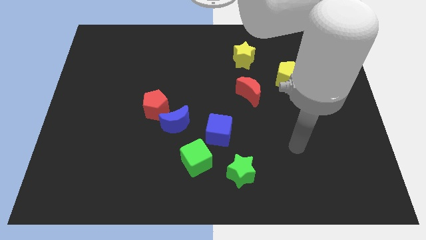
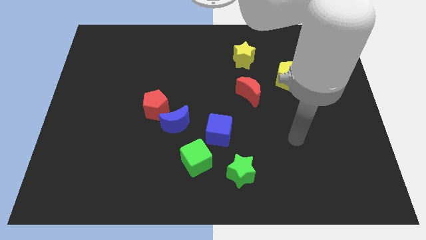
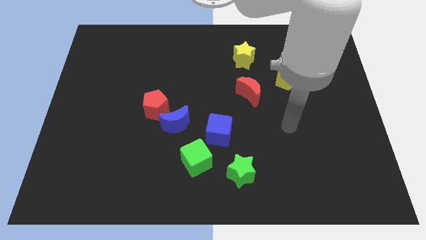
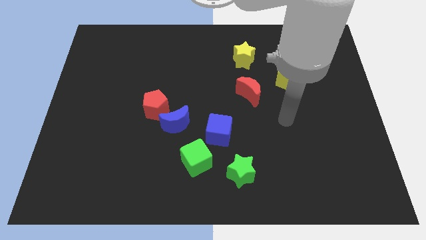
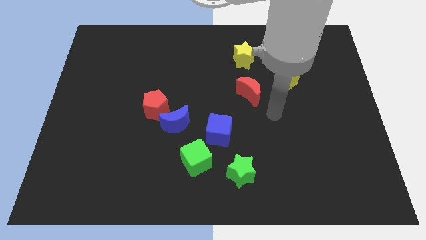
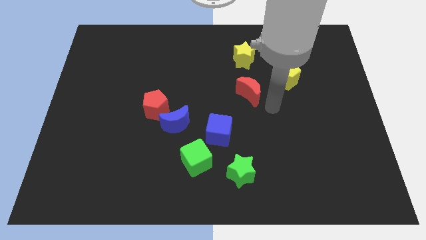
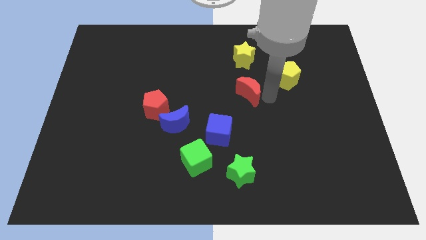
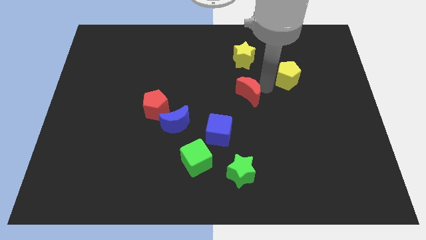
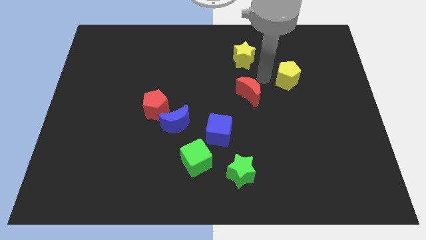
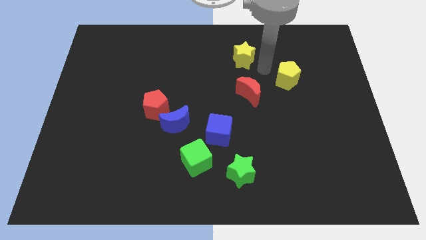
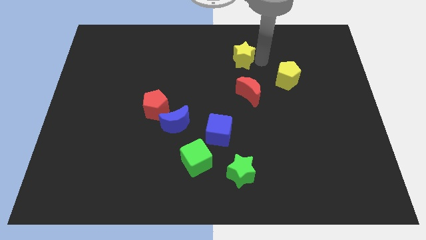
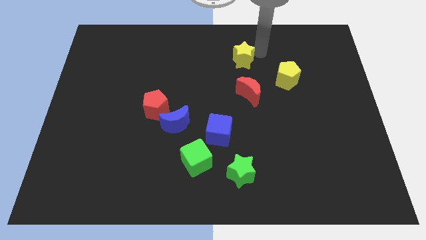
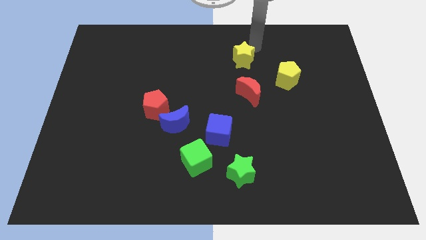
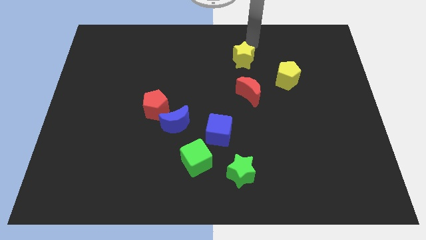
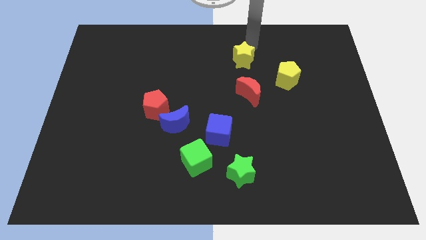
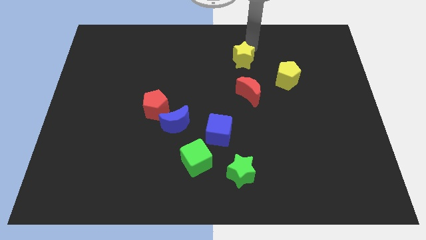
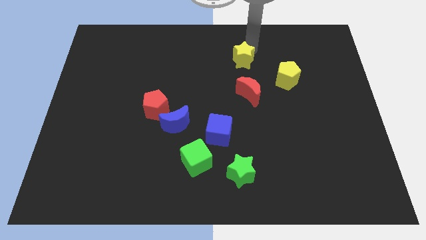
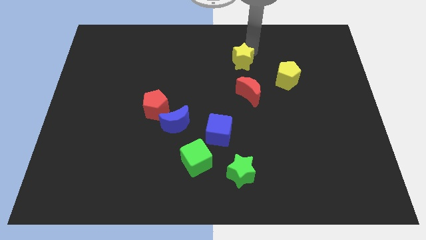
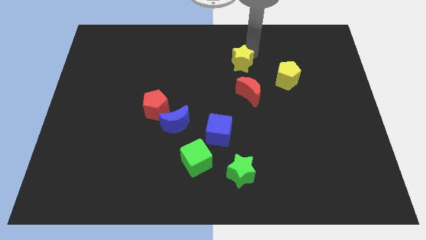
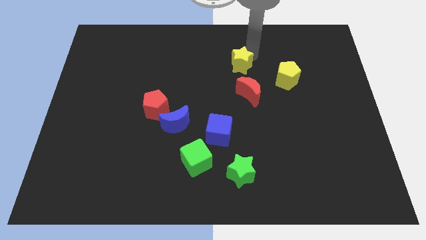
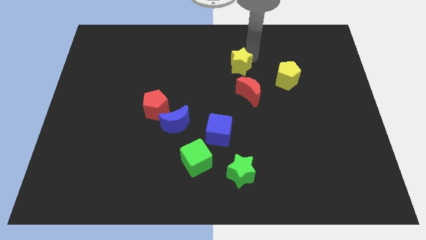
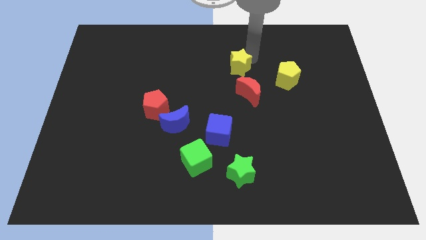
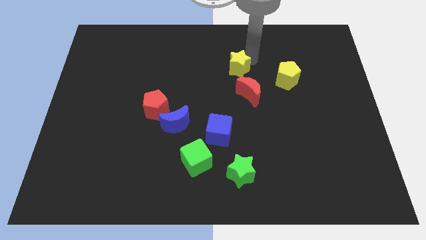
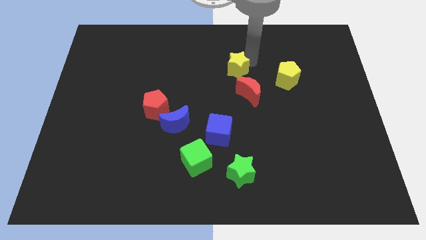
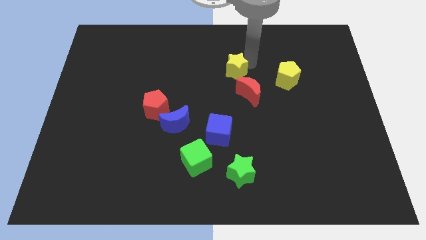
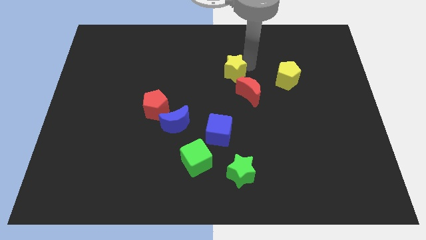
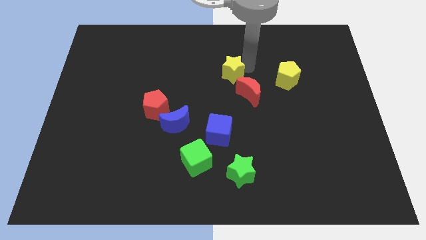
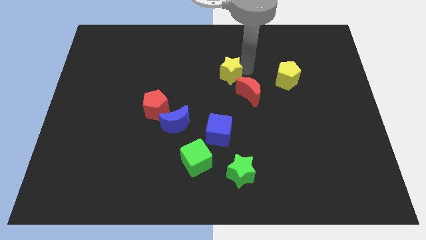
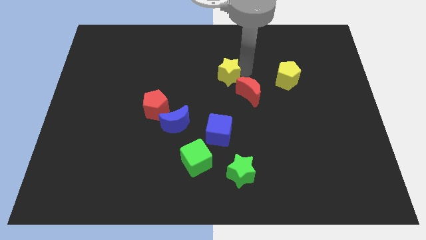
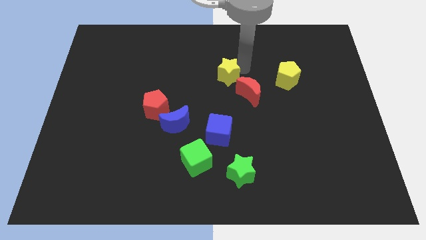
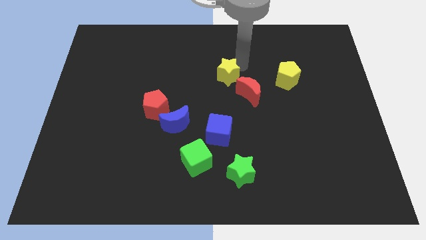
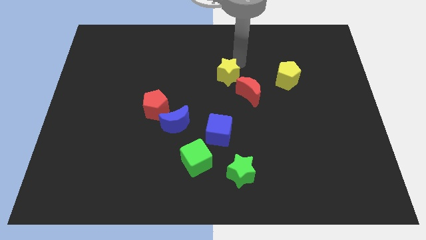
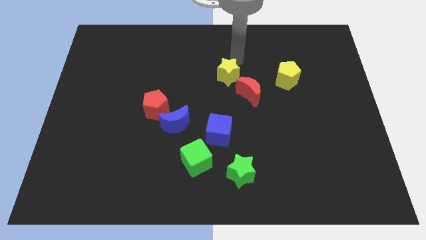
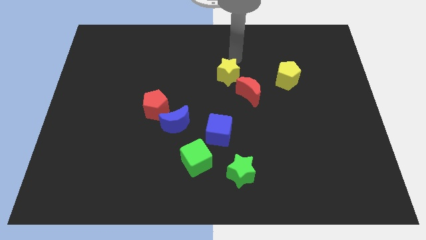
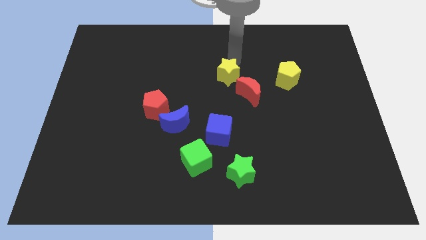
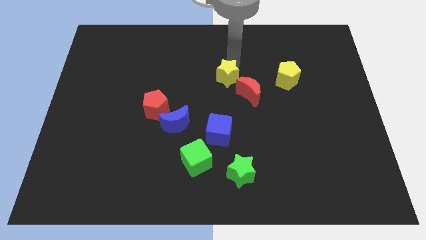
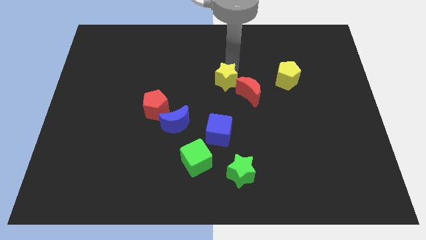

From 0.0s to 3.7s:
slightly slide the yellow star downwards

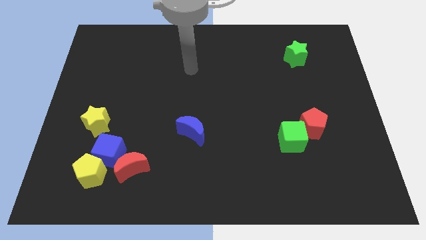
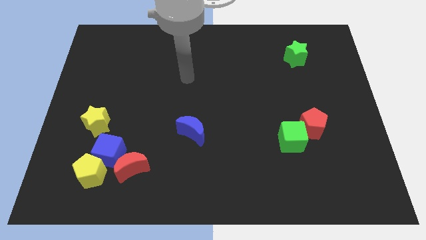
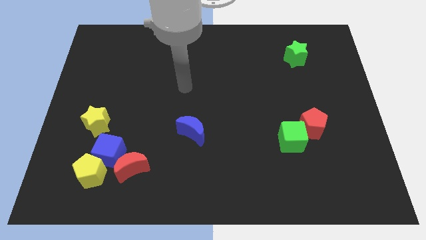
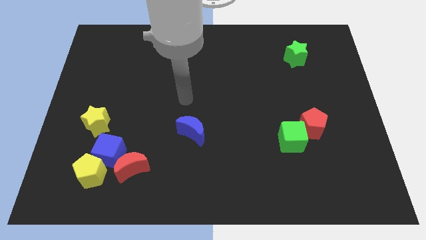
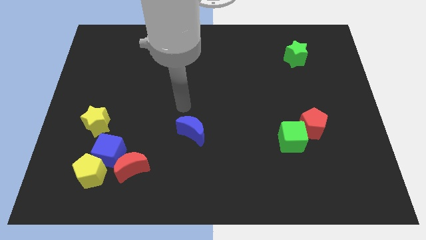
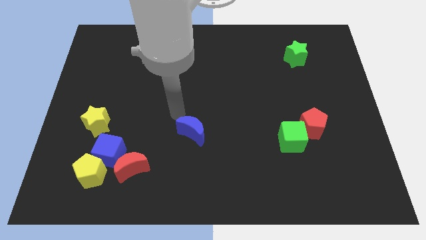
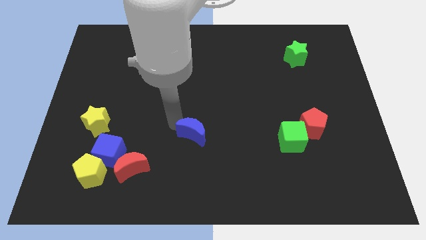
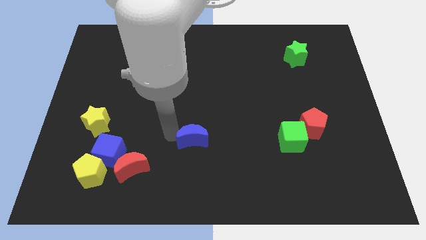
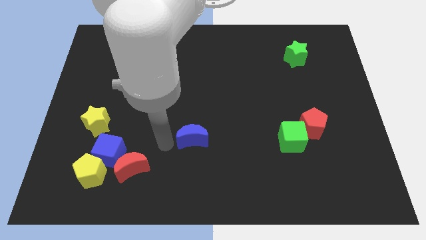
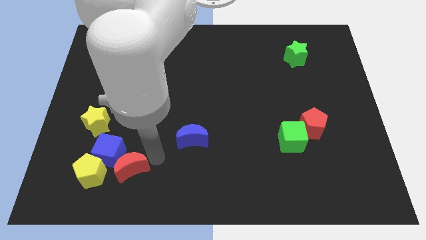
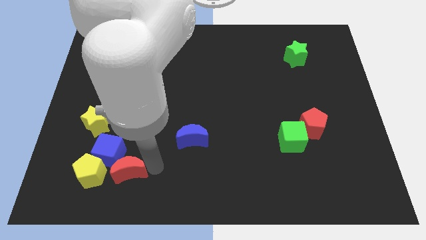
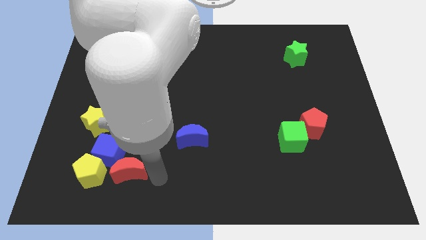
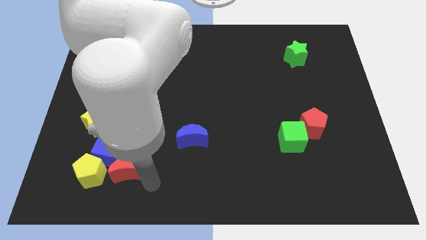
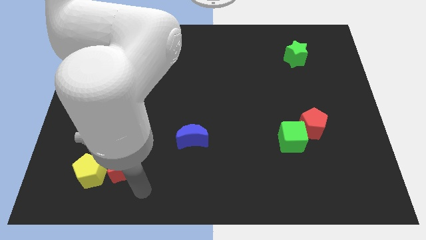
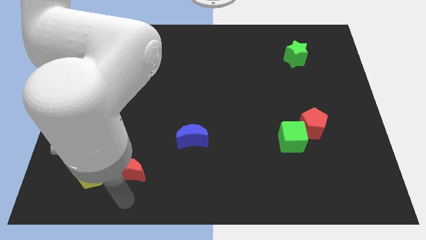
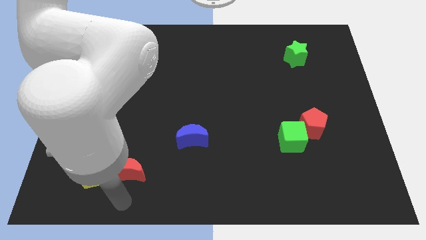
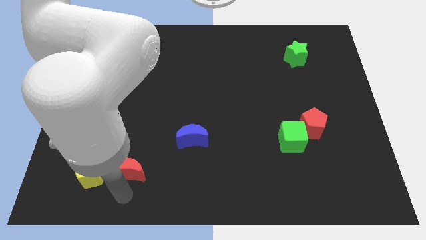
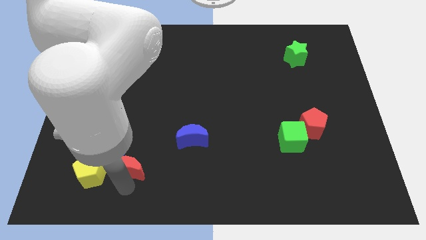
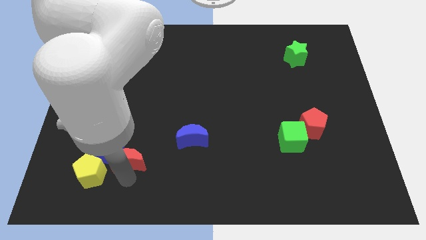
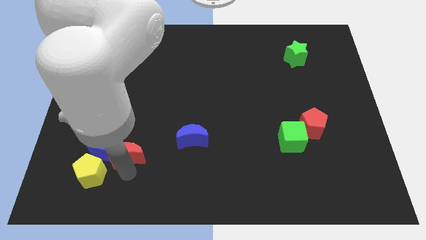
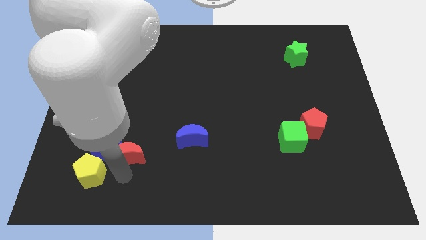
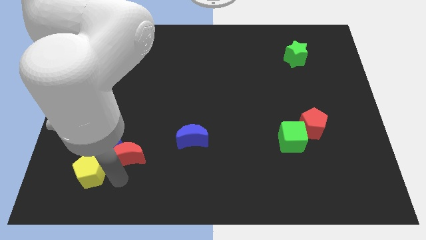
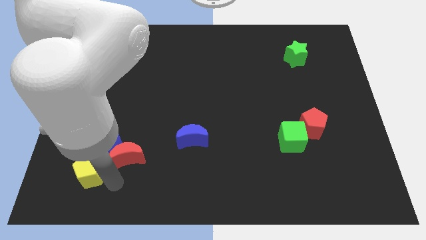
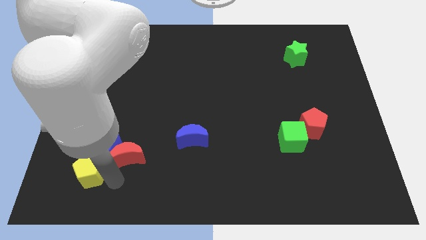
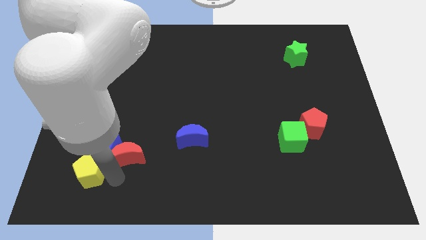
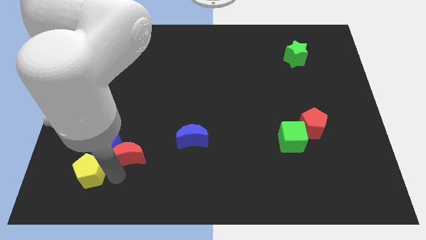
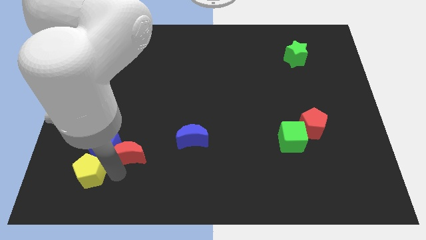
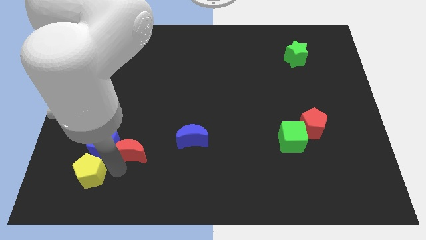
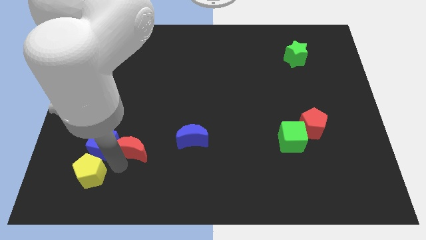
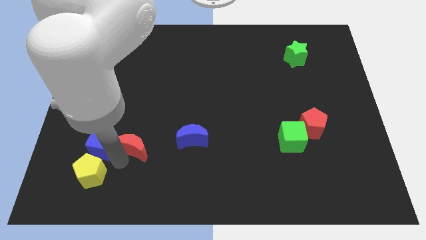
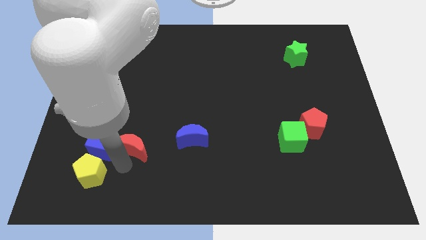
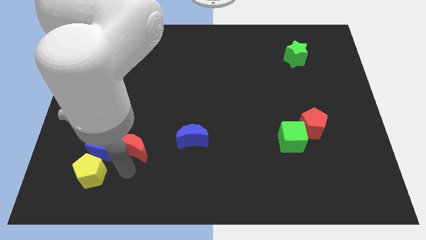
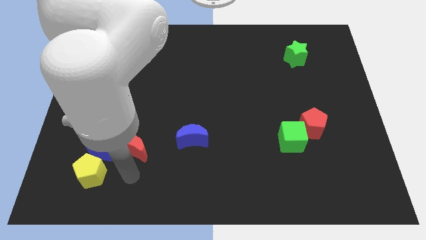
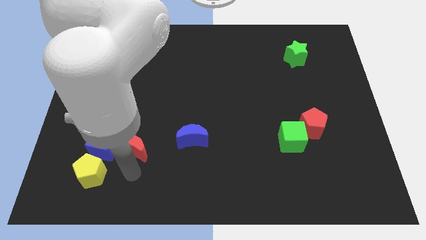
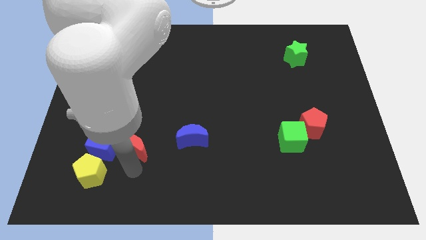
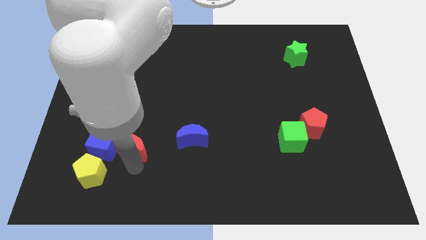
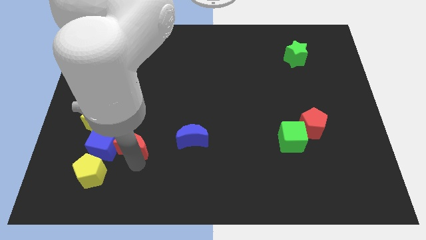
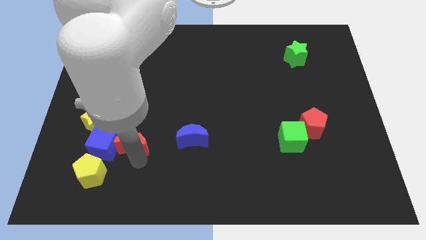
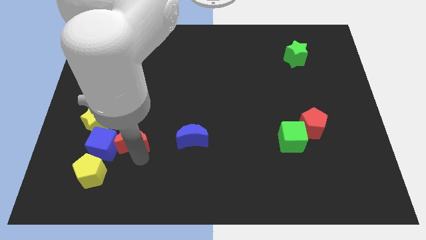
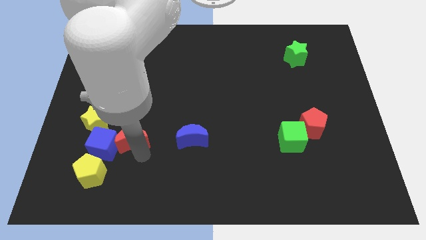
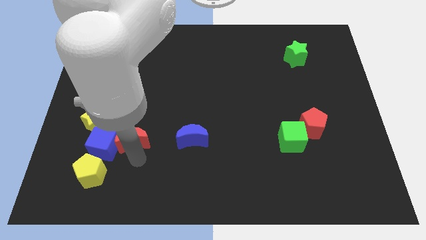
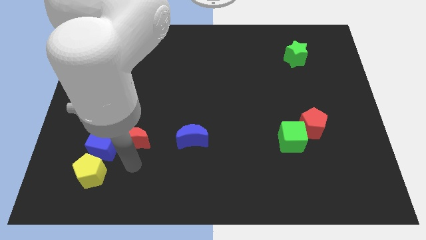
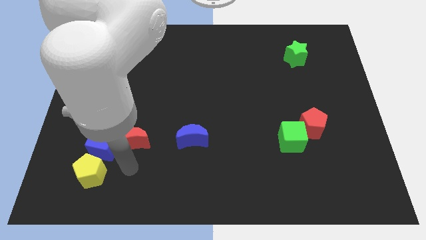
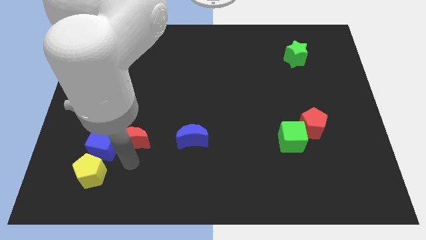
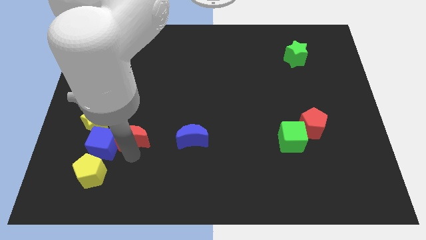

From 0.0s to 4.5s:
move the red moon a little bit upwards
